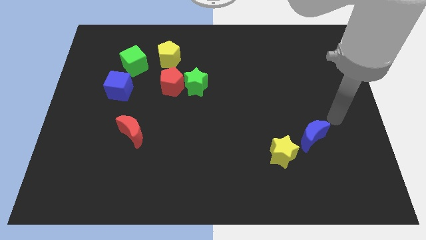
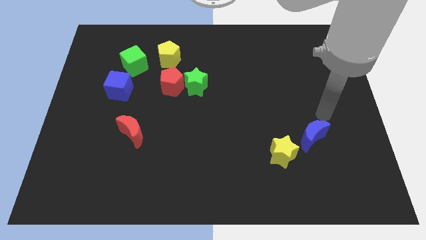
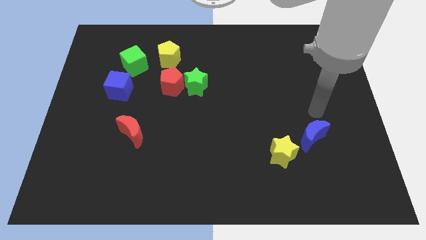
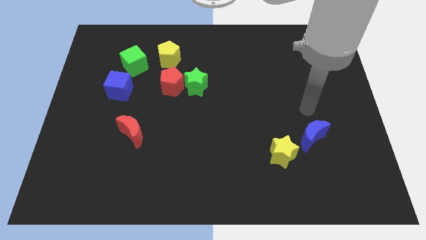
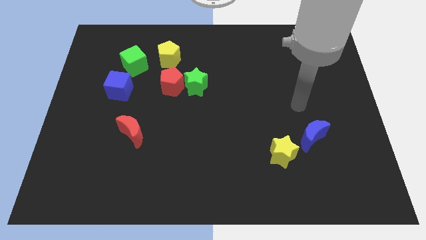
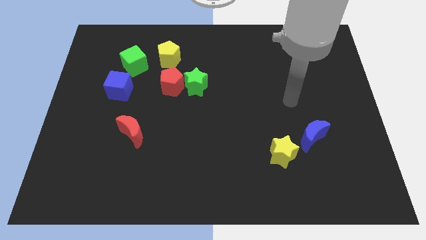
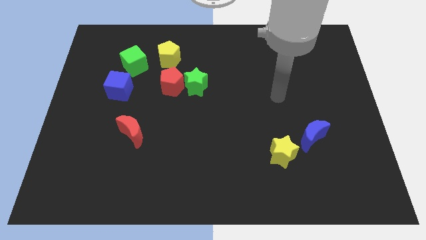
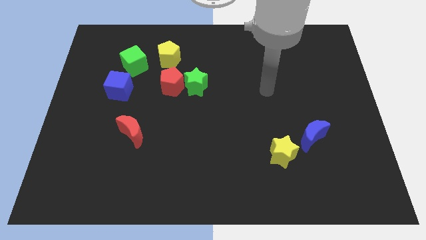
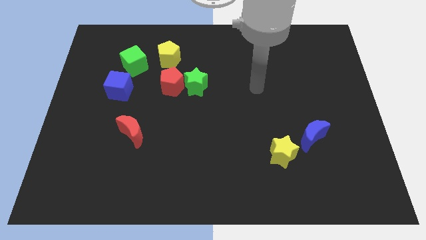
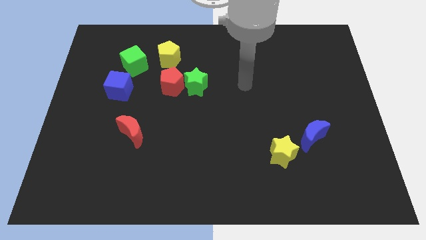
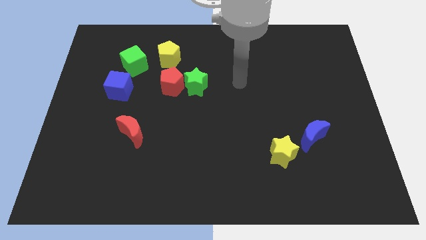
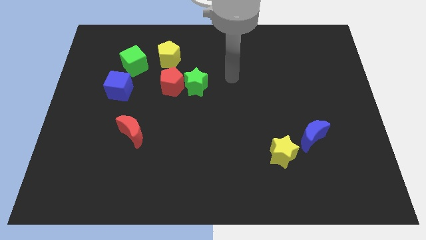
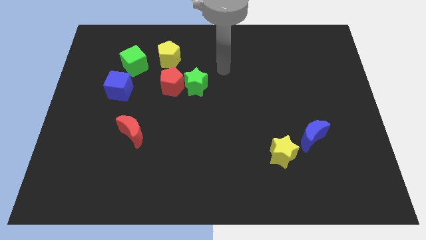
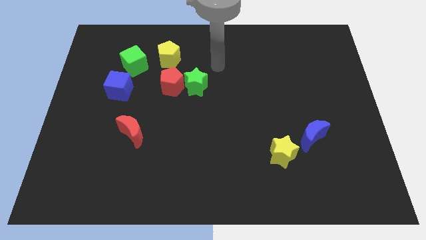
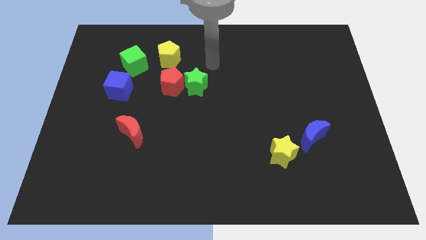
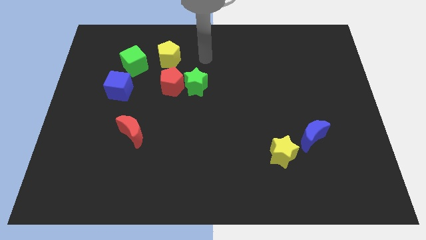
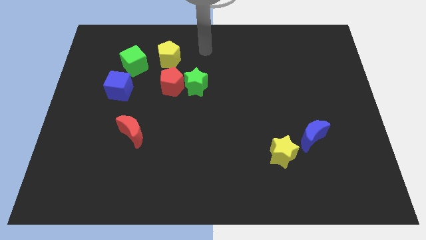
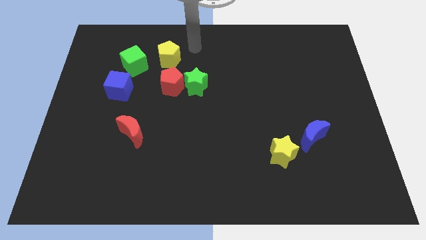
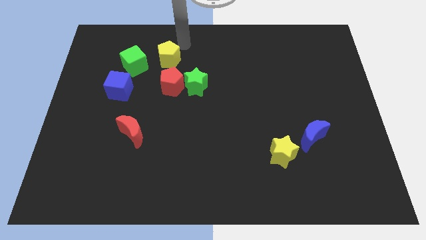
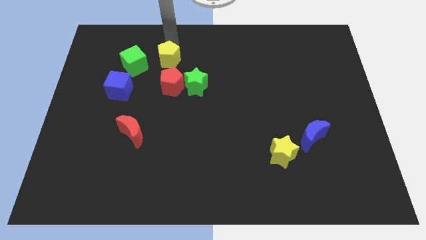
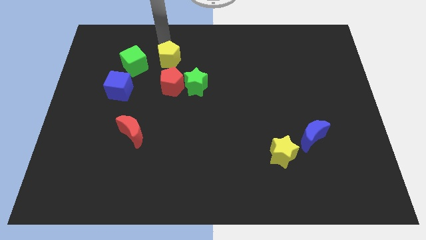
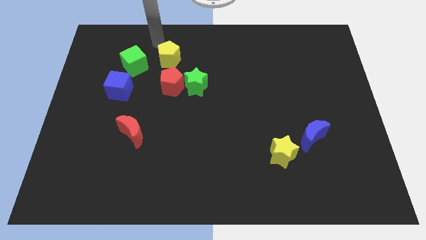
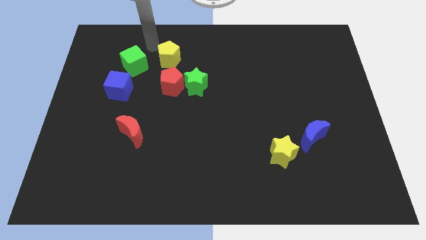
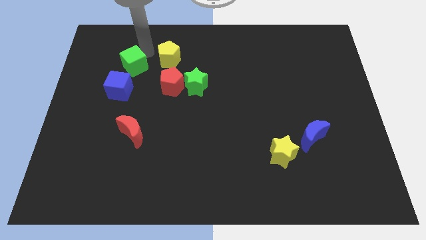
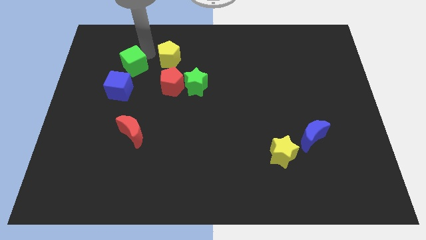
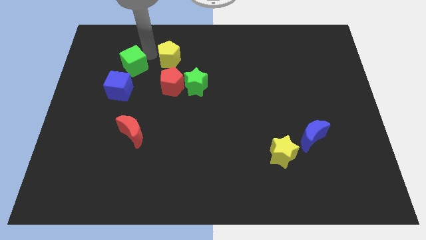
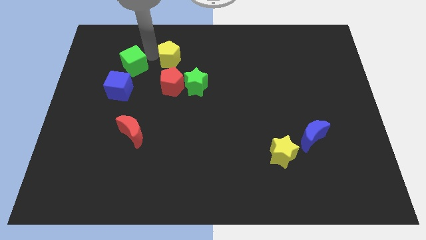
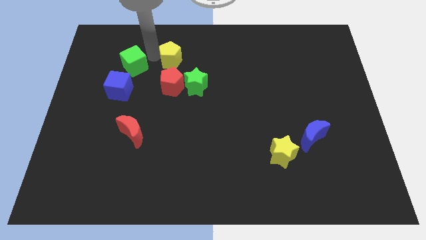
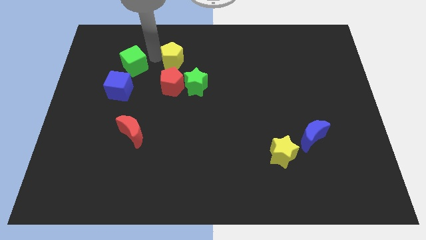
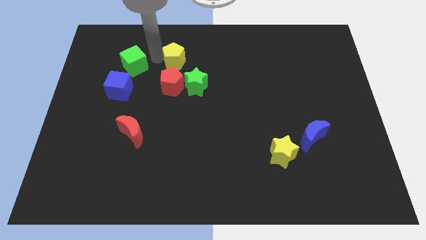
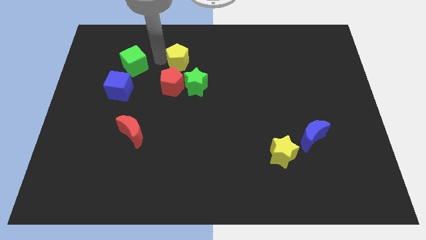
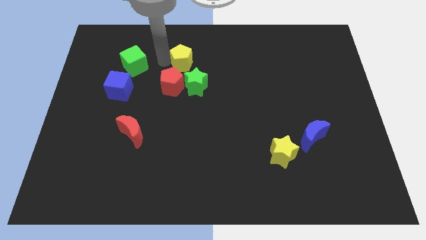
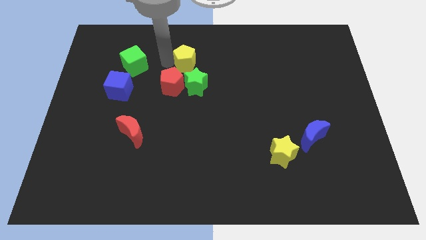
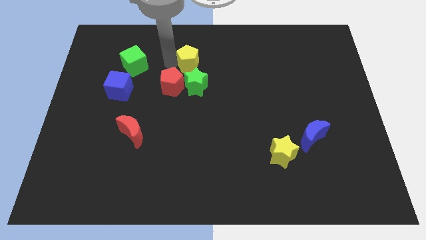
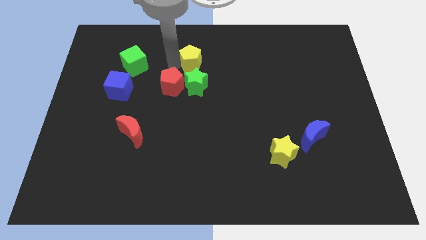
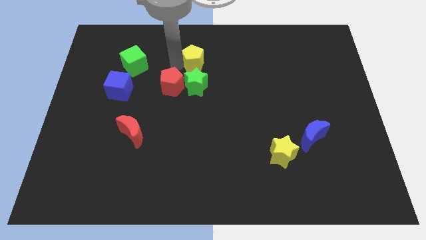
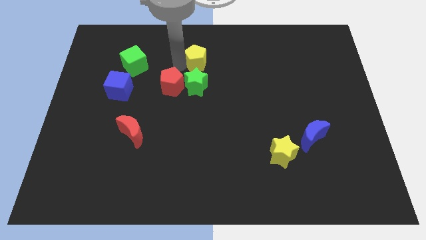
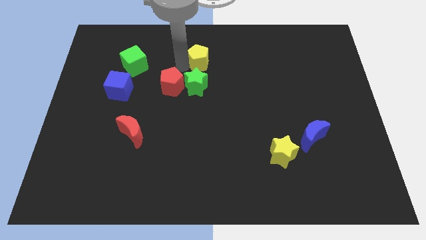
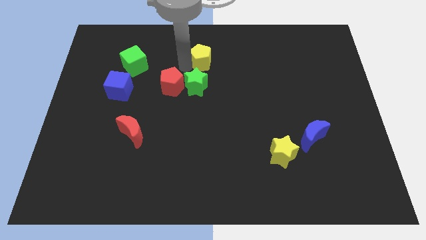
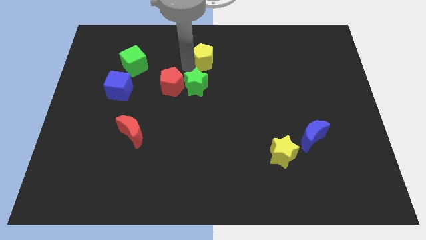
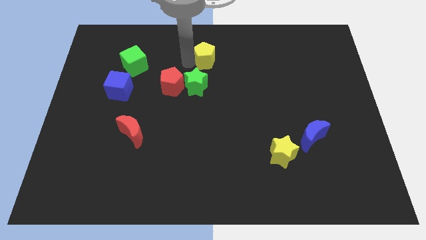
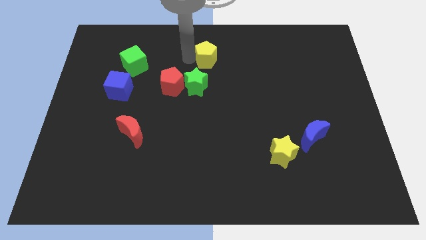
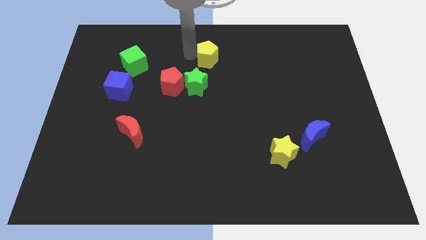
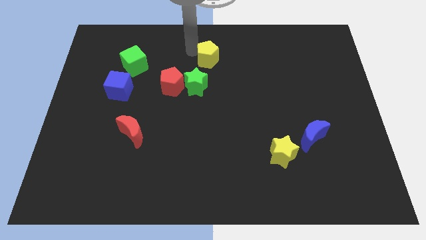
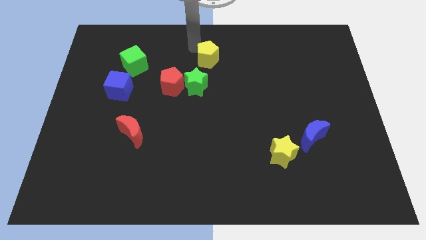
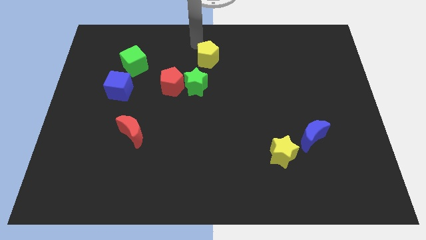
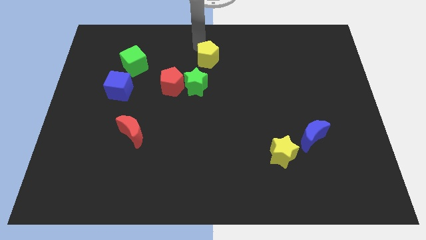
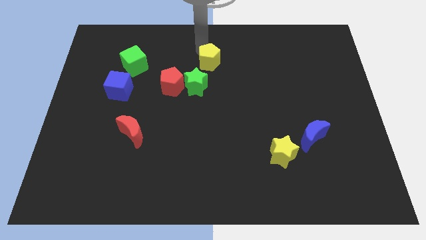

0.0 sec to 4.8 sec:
move the yellow pentagon diagonally up and to the right of the green star

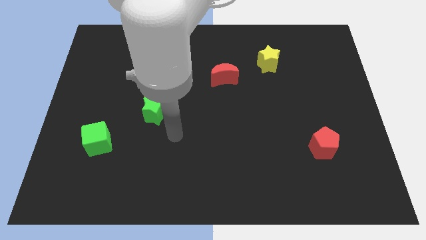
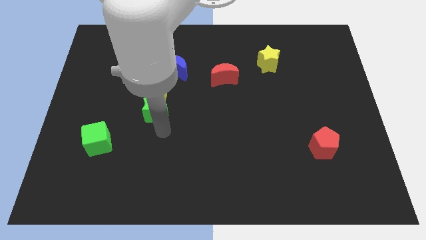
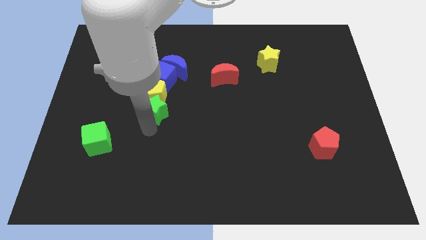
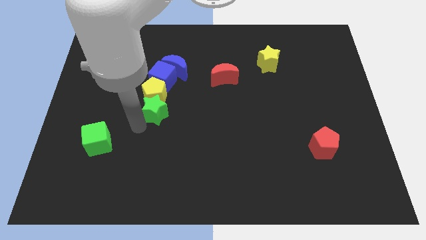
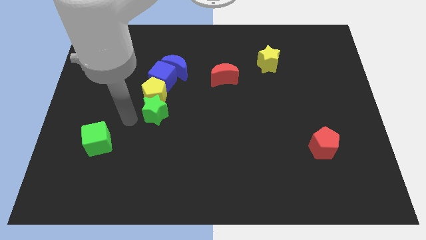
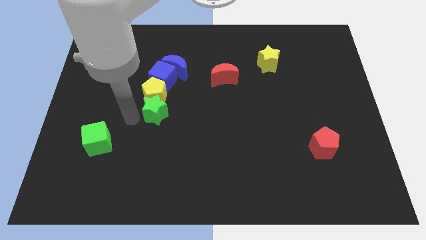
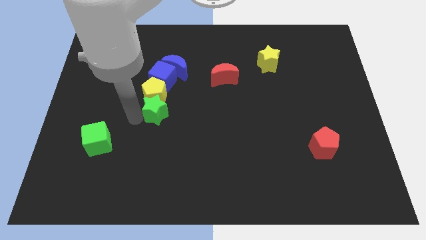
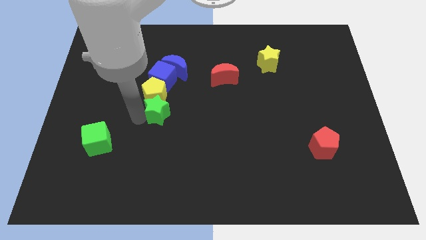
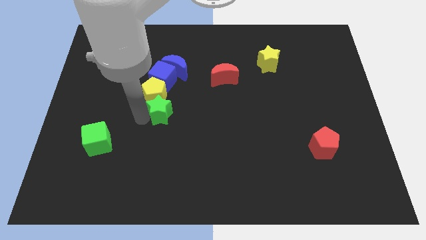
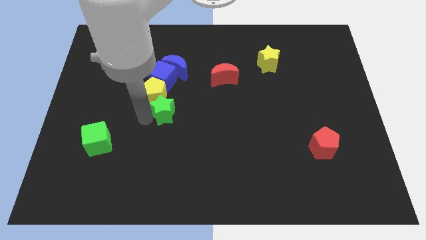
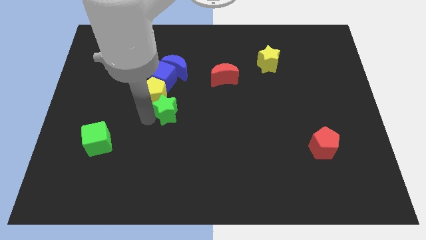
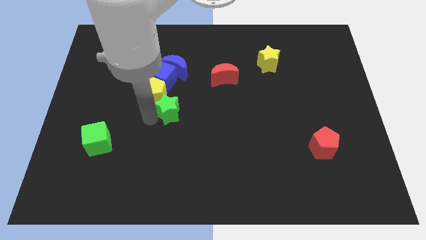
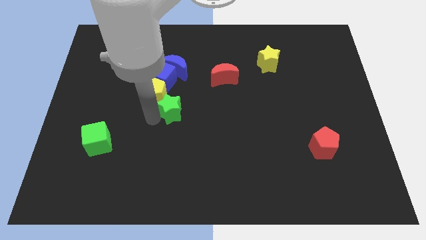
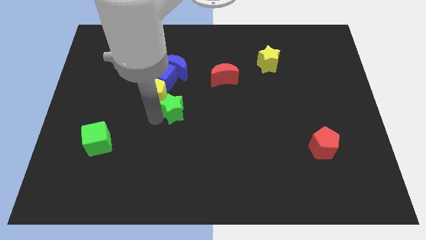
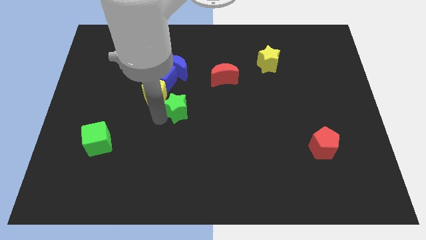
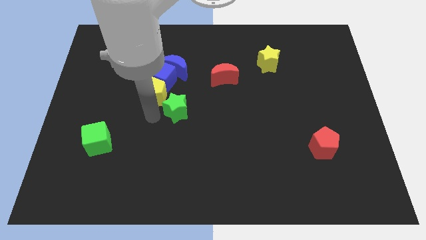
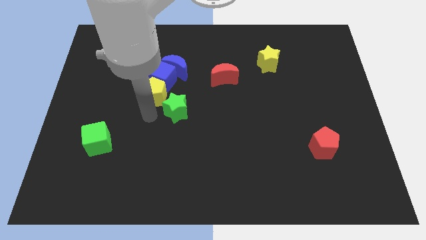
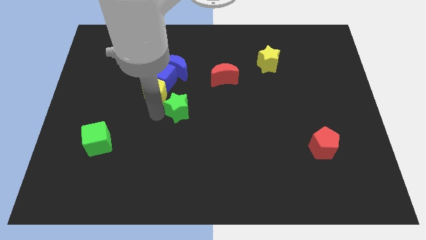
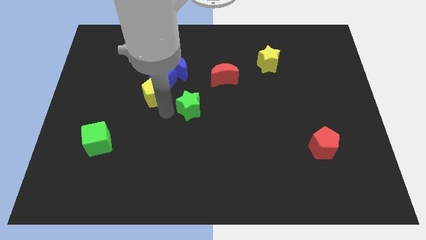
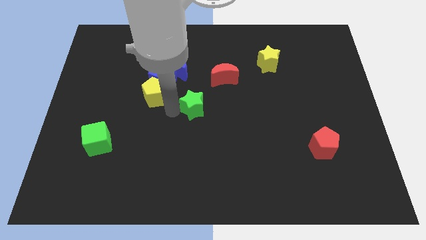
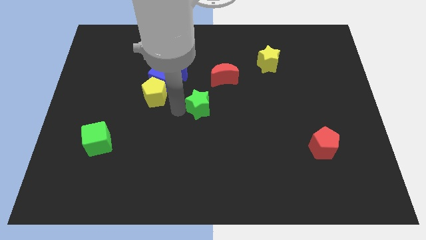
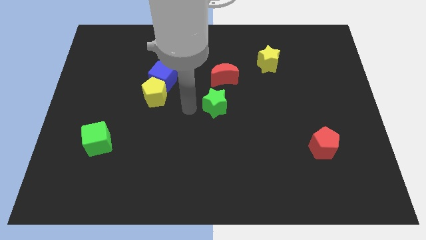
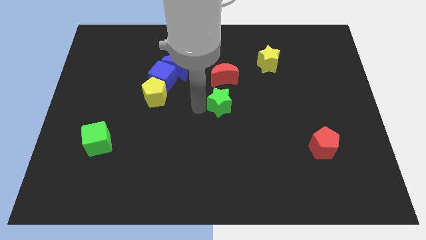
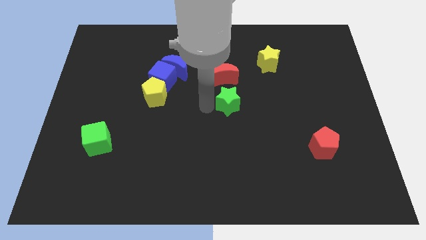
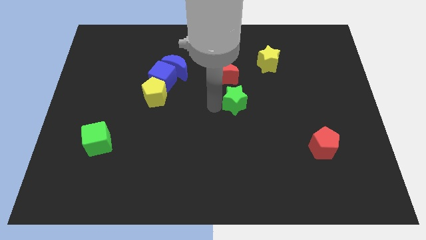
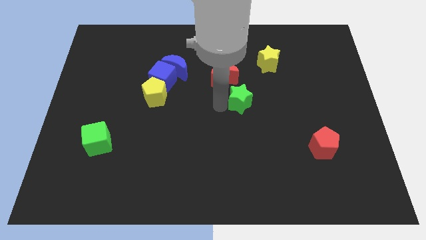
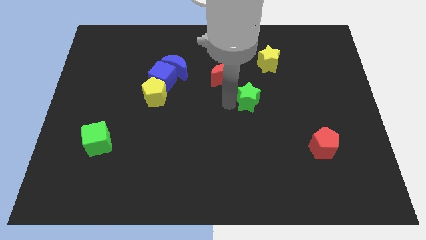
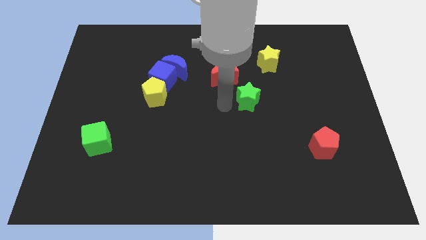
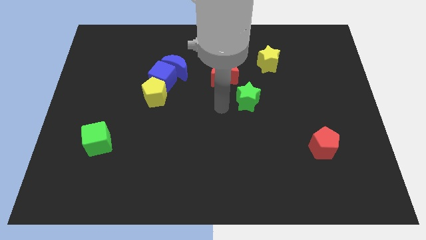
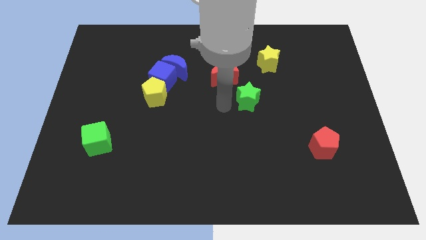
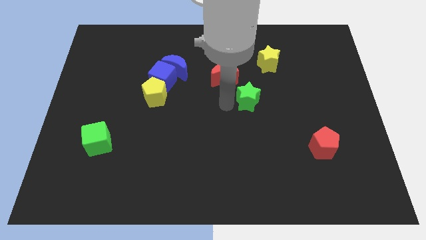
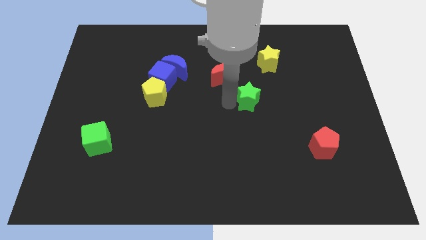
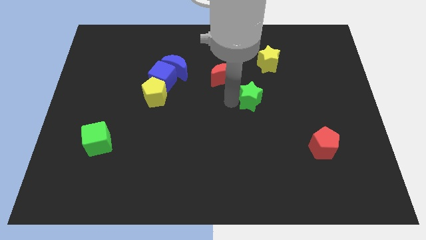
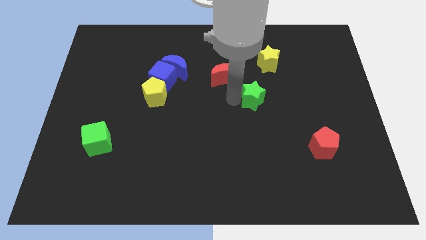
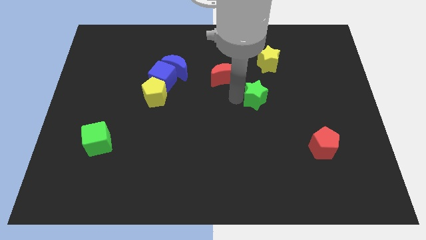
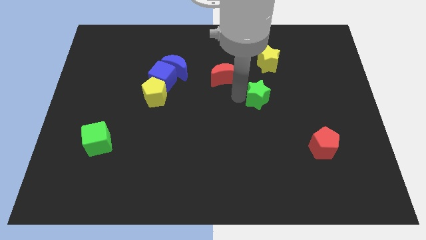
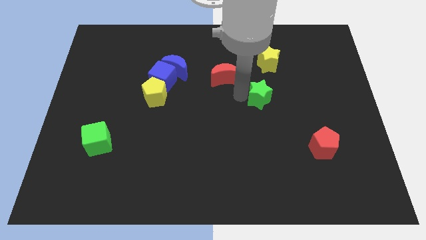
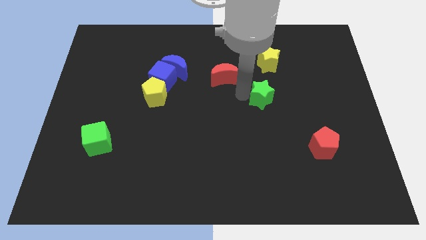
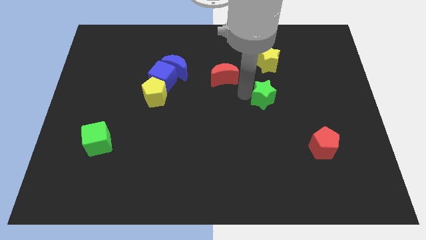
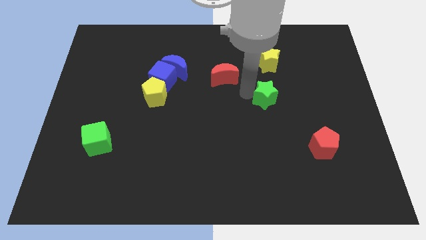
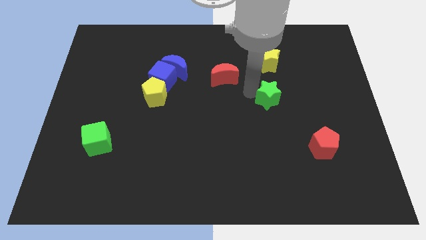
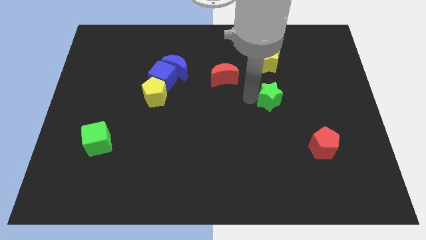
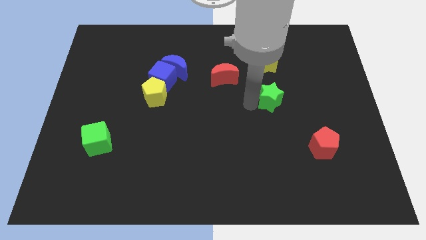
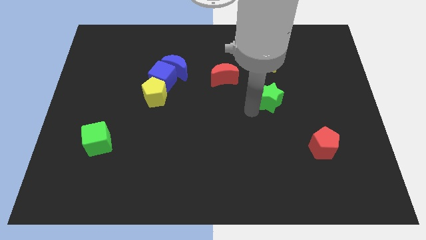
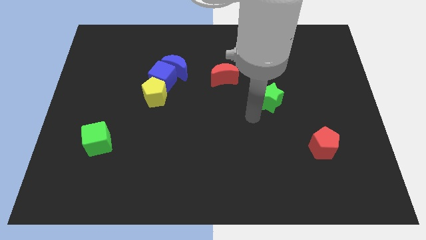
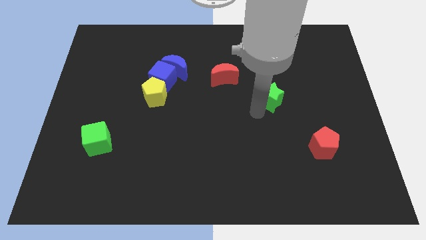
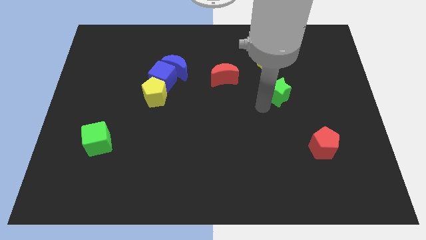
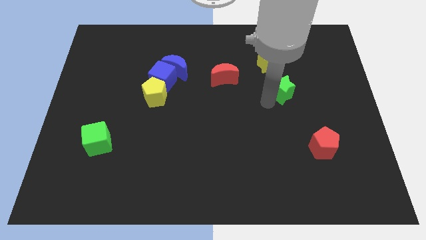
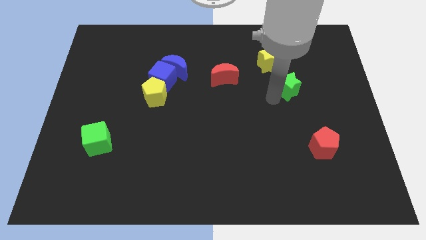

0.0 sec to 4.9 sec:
push the green star diagonally down and to the right of the yellow star
